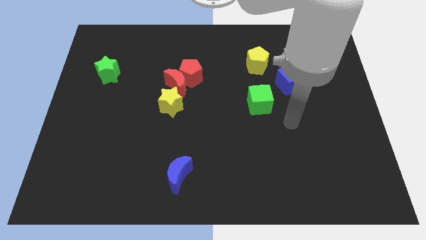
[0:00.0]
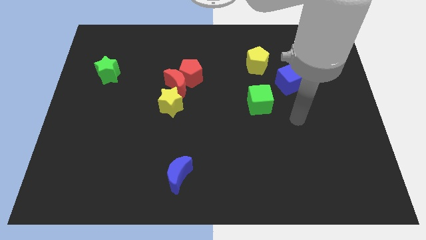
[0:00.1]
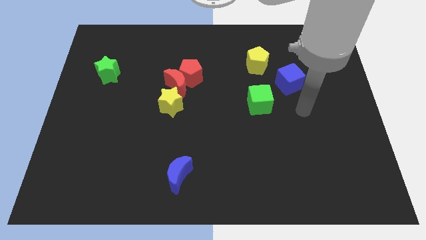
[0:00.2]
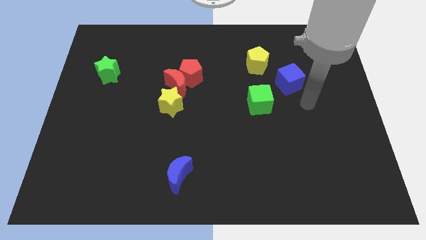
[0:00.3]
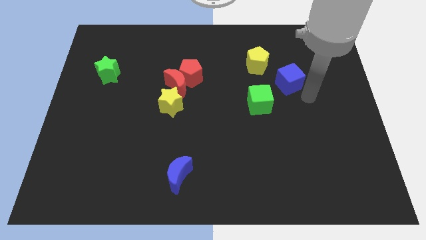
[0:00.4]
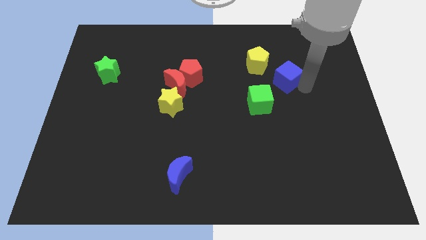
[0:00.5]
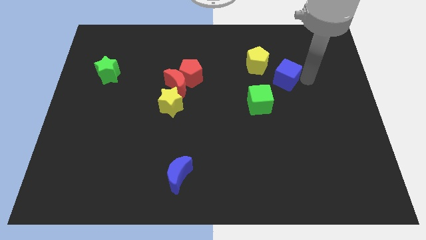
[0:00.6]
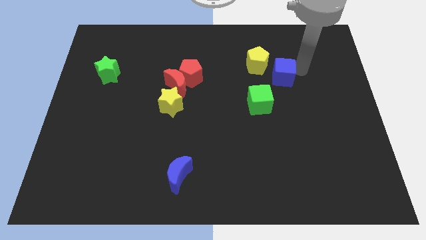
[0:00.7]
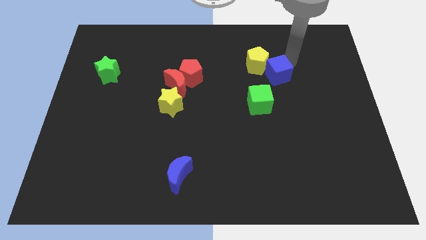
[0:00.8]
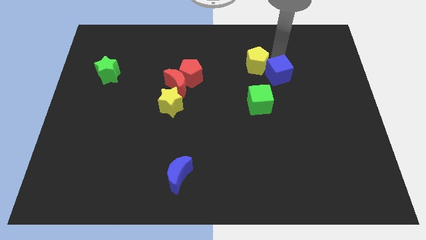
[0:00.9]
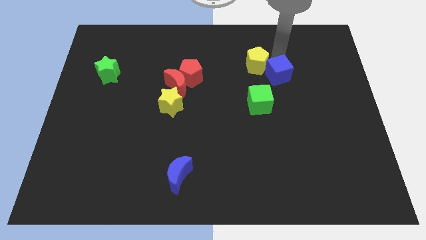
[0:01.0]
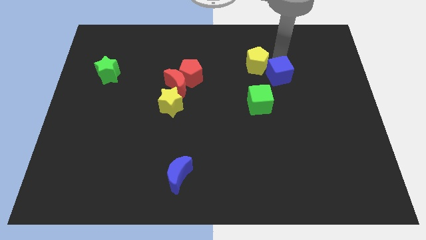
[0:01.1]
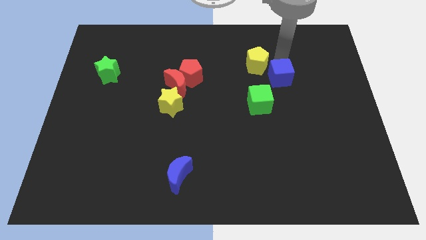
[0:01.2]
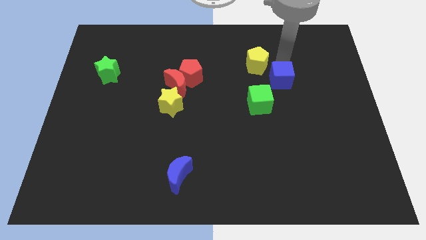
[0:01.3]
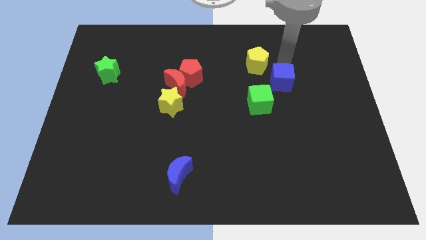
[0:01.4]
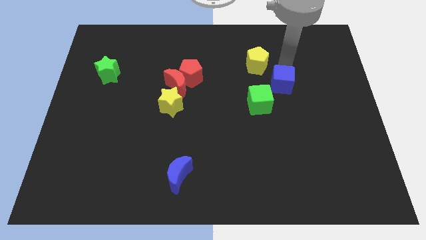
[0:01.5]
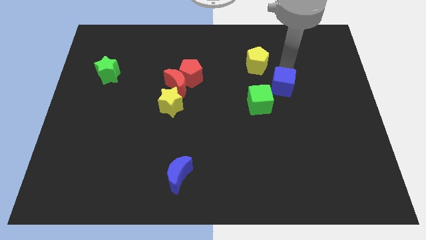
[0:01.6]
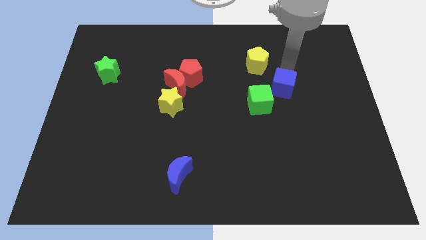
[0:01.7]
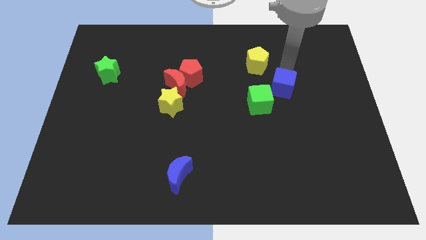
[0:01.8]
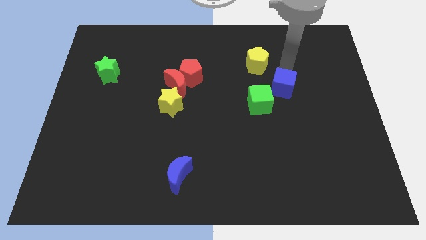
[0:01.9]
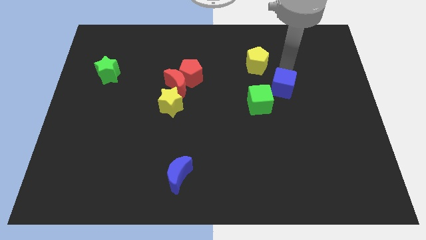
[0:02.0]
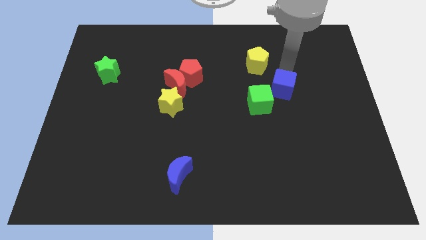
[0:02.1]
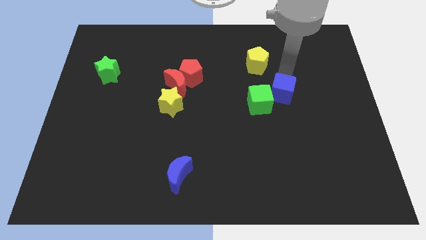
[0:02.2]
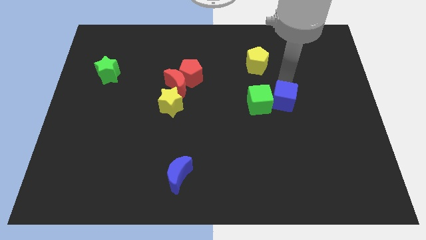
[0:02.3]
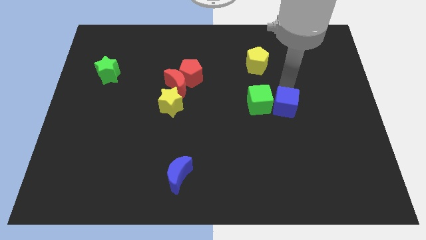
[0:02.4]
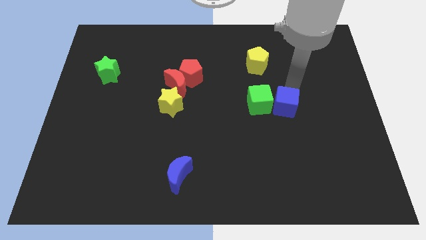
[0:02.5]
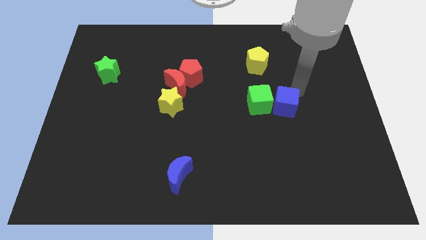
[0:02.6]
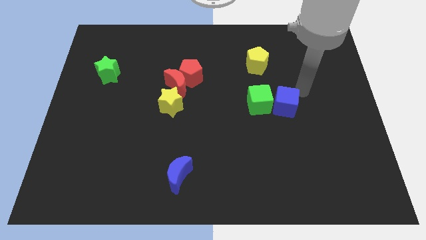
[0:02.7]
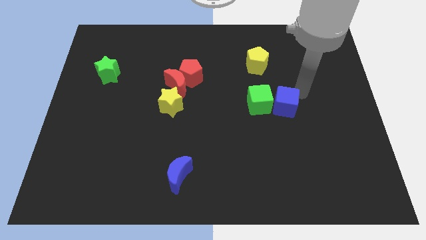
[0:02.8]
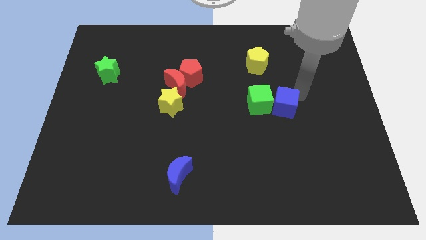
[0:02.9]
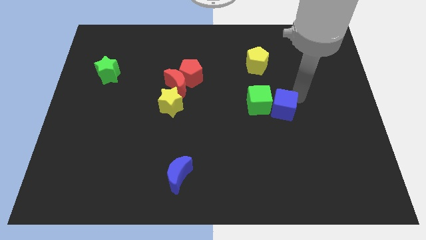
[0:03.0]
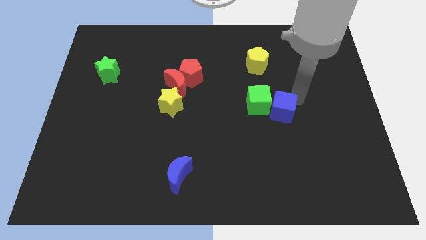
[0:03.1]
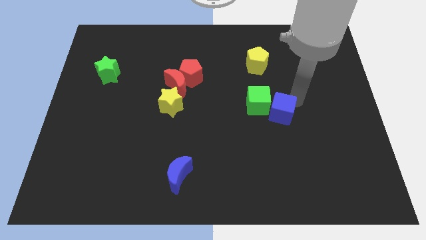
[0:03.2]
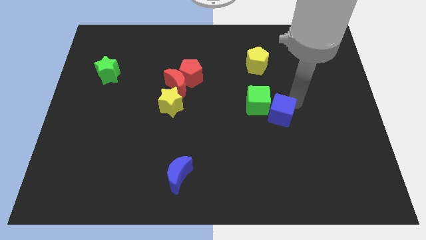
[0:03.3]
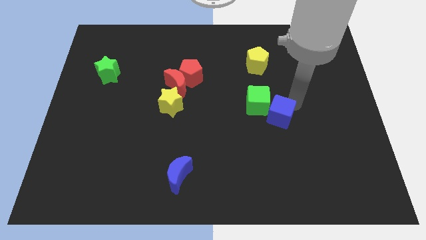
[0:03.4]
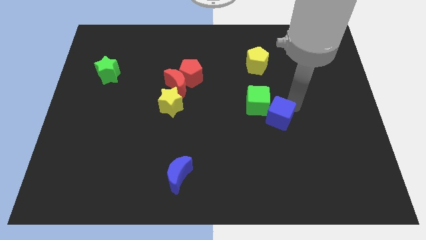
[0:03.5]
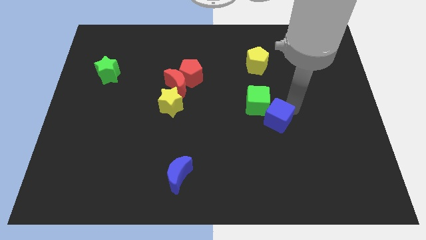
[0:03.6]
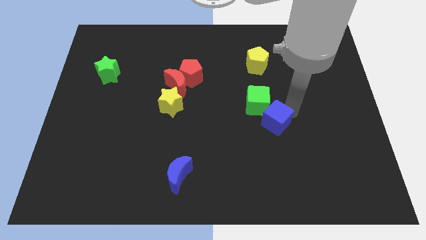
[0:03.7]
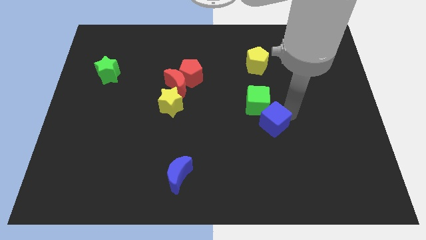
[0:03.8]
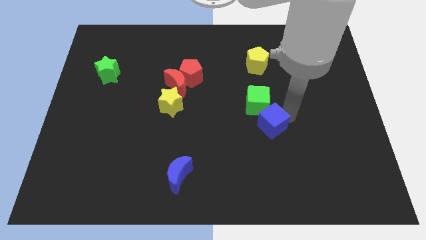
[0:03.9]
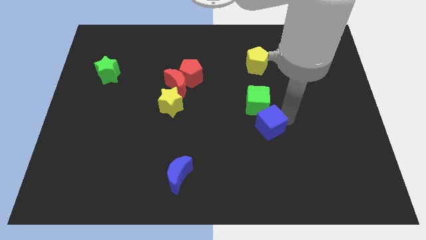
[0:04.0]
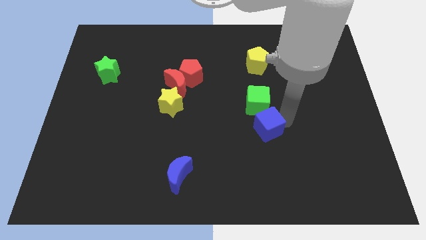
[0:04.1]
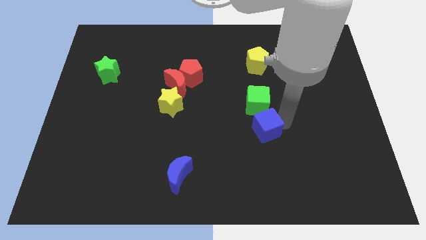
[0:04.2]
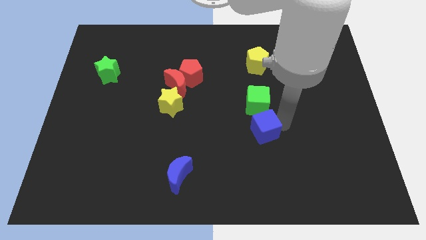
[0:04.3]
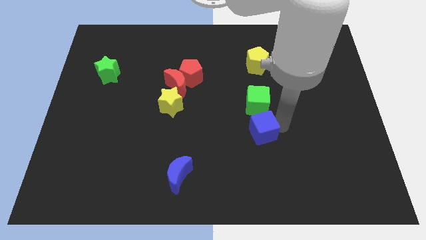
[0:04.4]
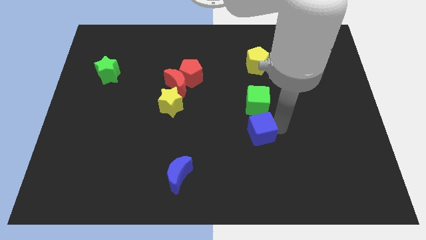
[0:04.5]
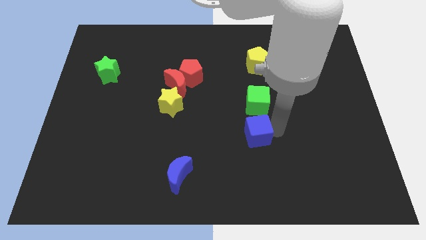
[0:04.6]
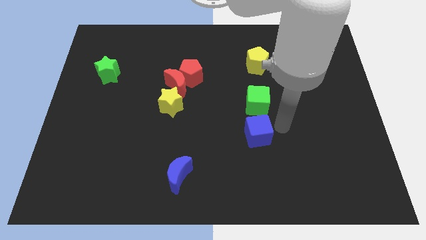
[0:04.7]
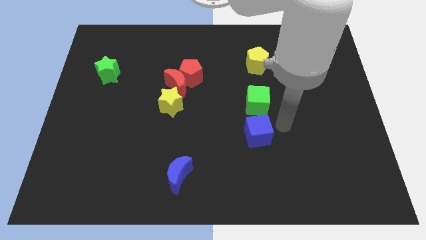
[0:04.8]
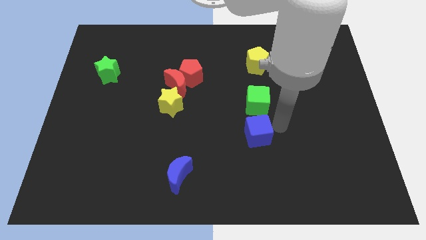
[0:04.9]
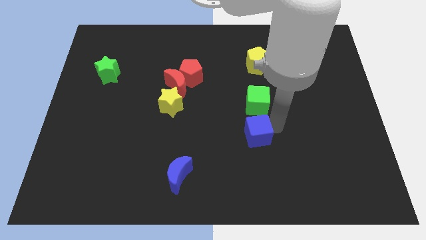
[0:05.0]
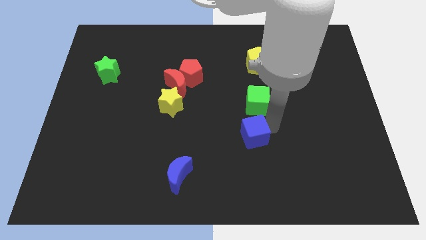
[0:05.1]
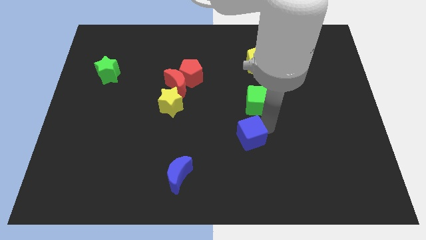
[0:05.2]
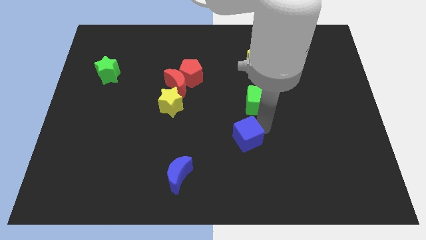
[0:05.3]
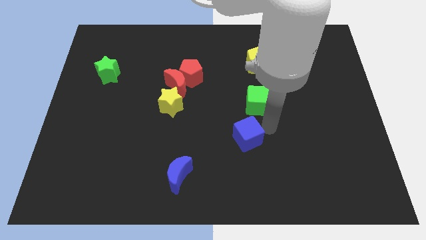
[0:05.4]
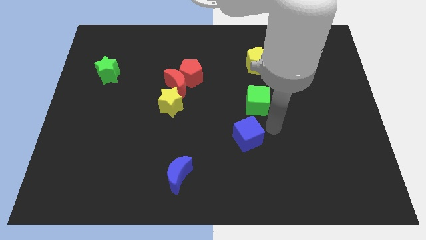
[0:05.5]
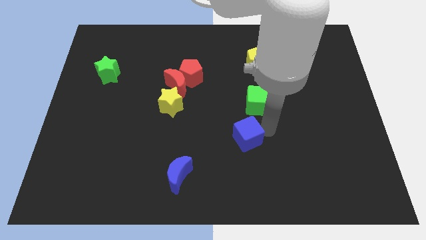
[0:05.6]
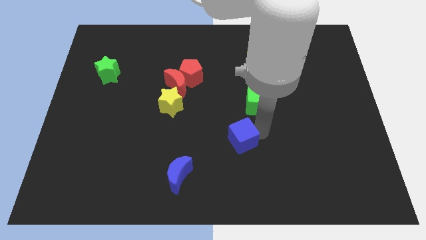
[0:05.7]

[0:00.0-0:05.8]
slide the blue cube down and then to the left

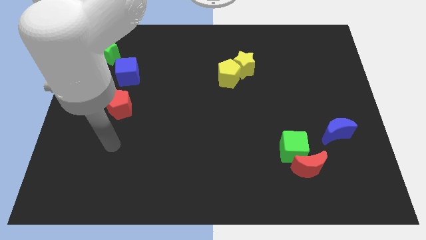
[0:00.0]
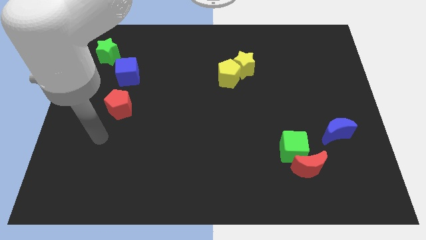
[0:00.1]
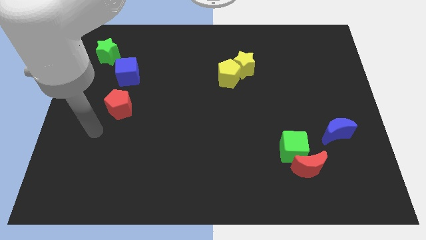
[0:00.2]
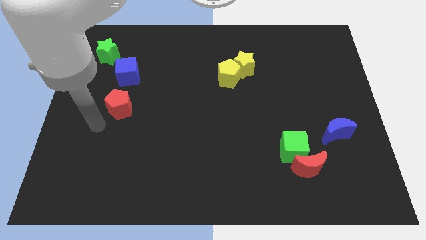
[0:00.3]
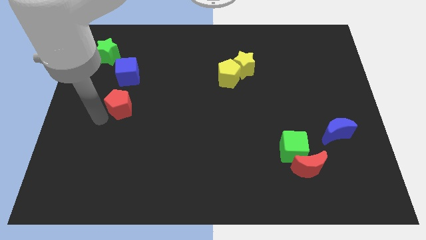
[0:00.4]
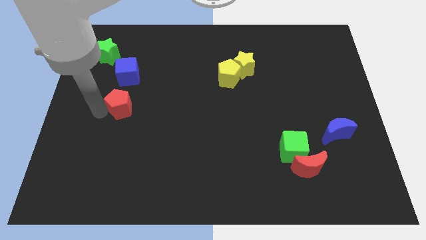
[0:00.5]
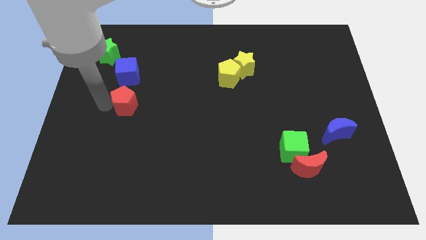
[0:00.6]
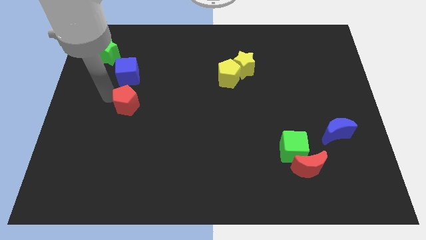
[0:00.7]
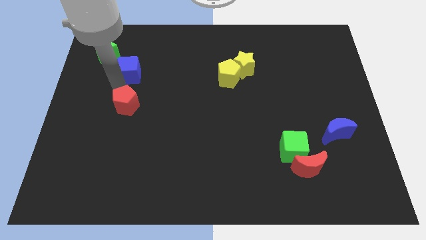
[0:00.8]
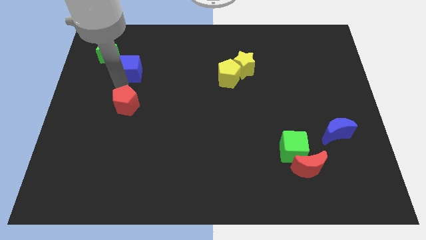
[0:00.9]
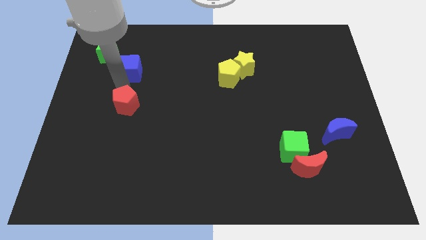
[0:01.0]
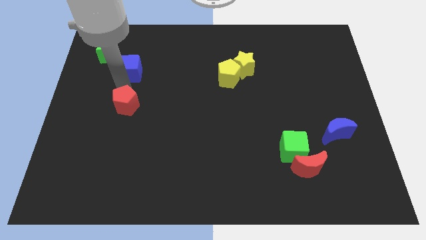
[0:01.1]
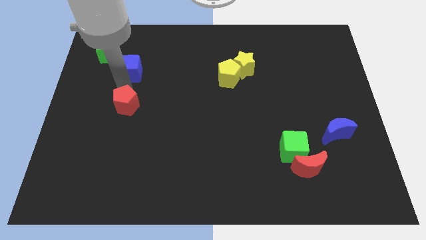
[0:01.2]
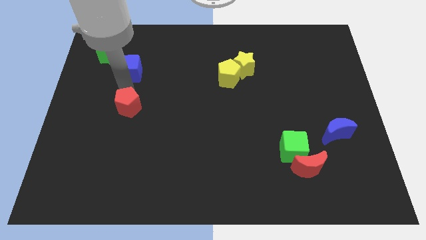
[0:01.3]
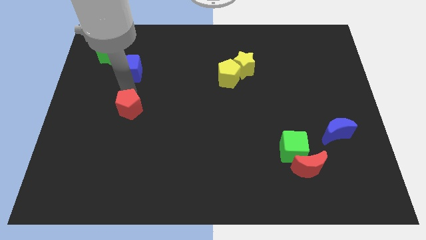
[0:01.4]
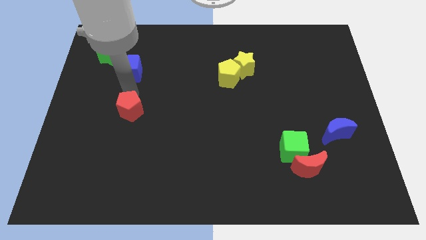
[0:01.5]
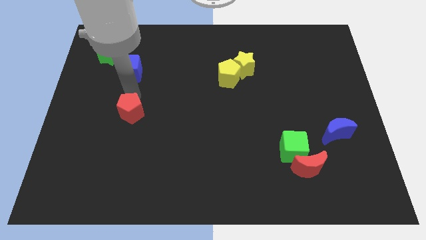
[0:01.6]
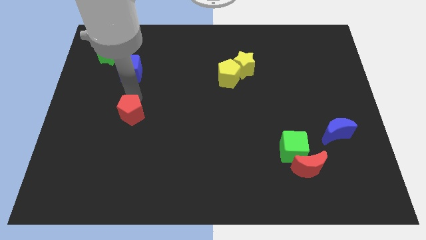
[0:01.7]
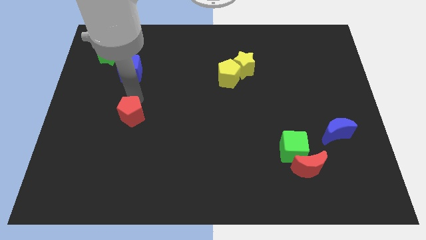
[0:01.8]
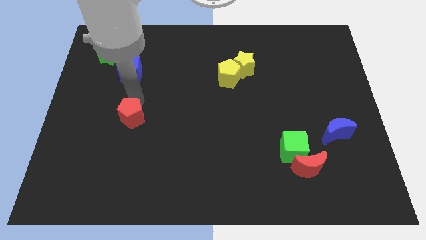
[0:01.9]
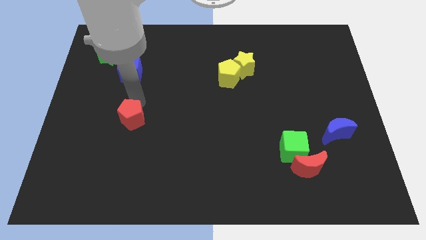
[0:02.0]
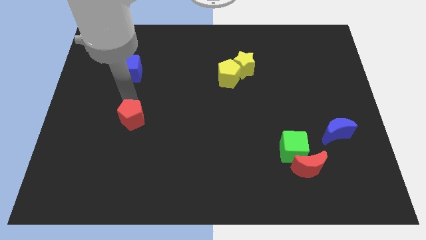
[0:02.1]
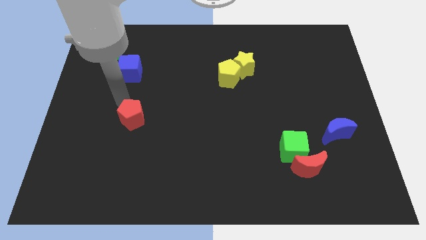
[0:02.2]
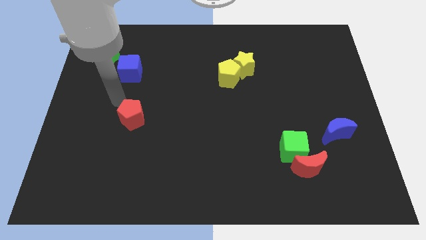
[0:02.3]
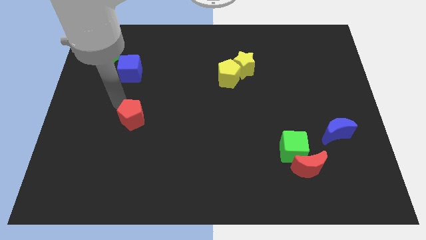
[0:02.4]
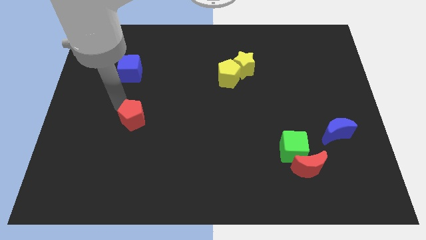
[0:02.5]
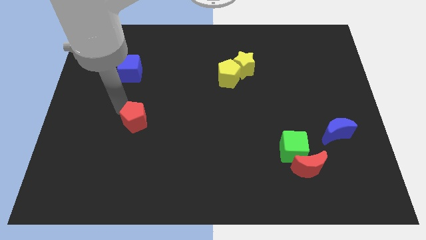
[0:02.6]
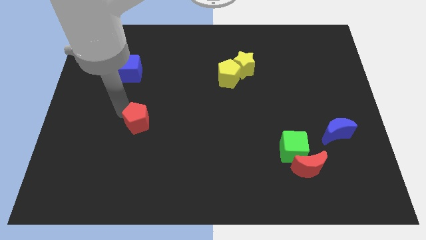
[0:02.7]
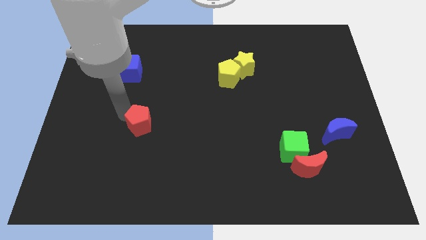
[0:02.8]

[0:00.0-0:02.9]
move the red pentagon slightly downwards and right diagonally
